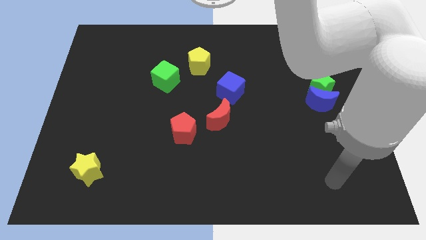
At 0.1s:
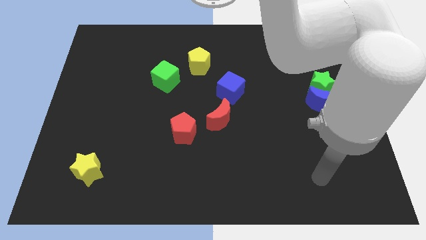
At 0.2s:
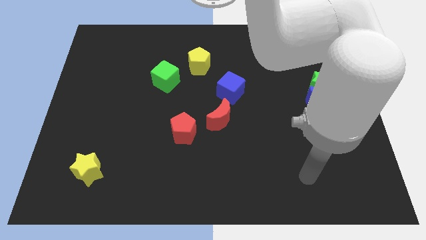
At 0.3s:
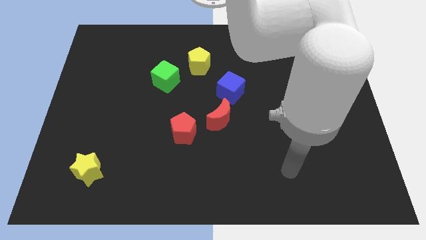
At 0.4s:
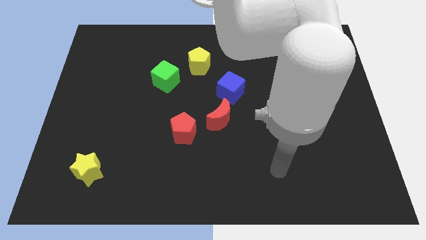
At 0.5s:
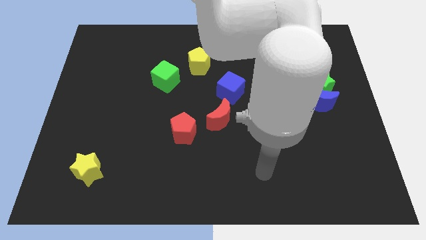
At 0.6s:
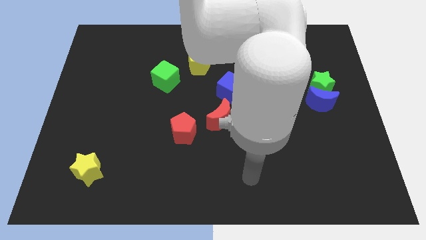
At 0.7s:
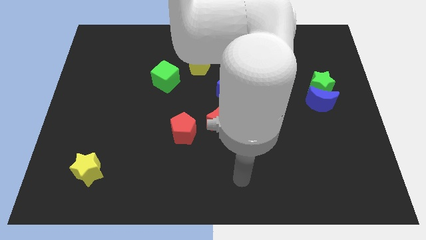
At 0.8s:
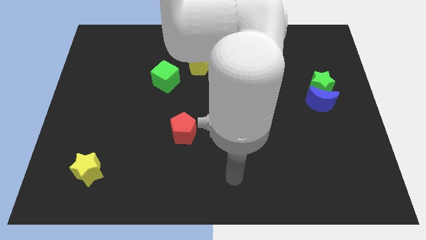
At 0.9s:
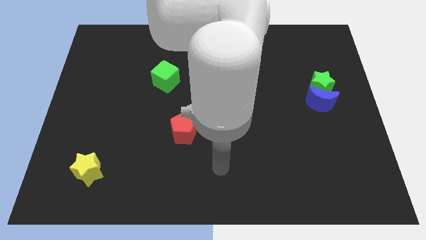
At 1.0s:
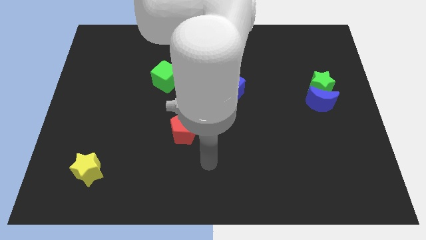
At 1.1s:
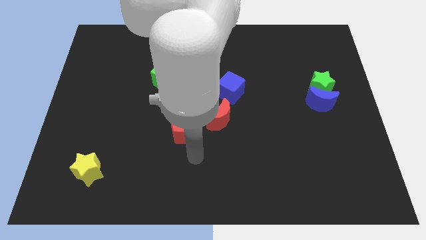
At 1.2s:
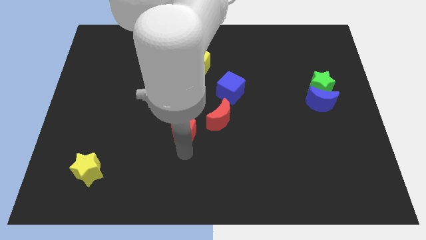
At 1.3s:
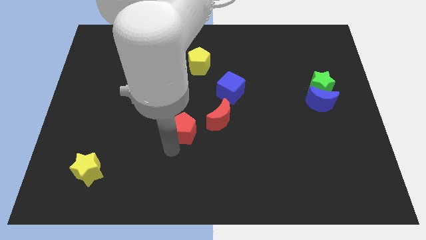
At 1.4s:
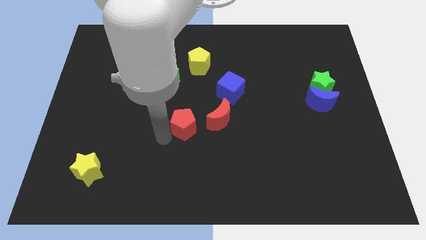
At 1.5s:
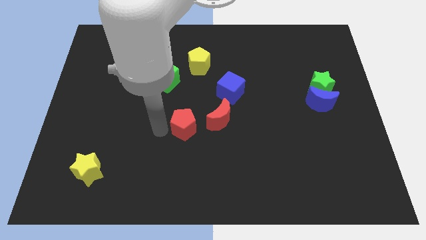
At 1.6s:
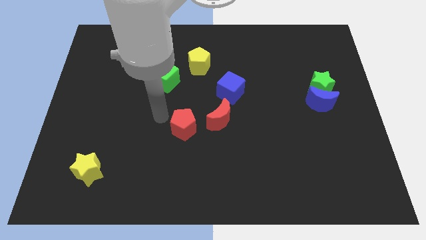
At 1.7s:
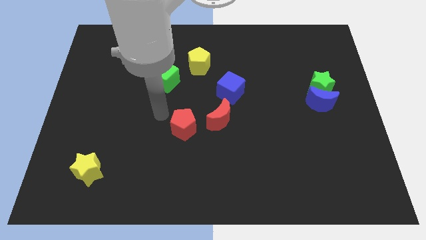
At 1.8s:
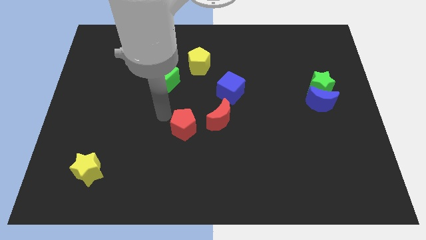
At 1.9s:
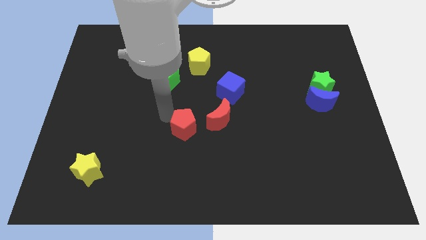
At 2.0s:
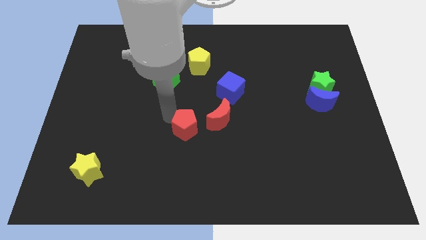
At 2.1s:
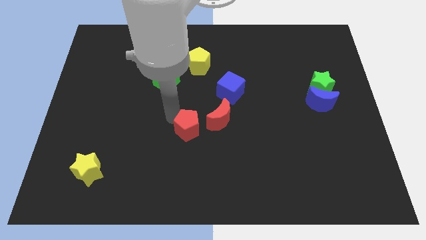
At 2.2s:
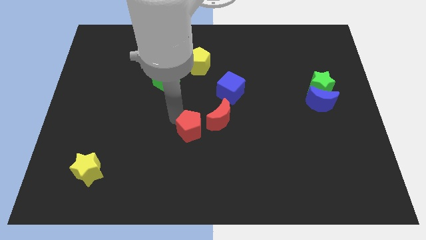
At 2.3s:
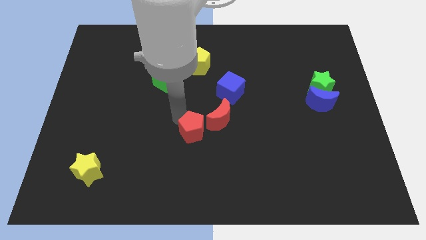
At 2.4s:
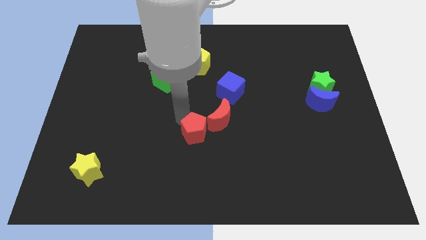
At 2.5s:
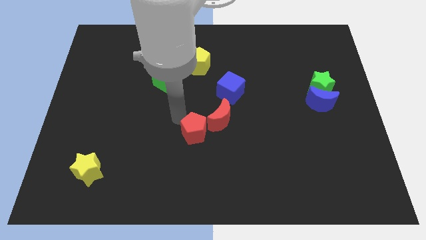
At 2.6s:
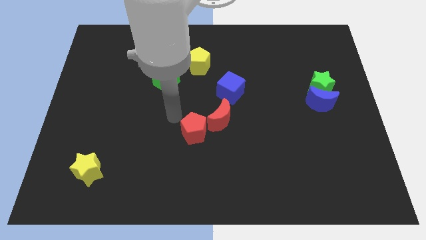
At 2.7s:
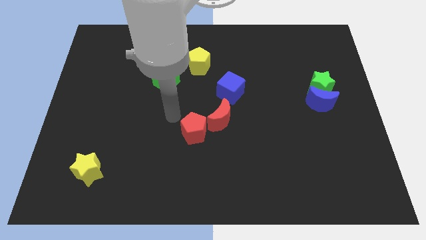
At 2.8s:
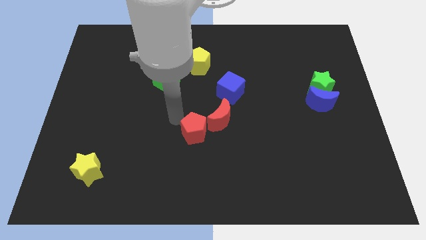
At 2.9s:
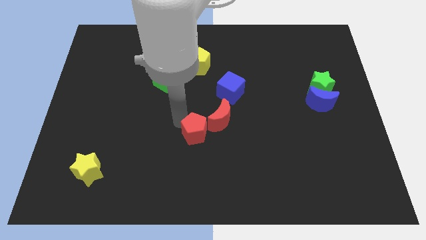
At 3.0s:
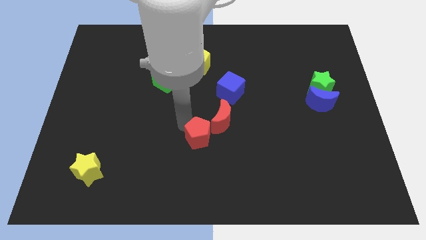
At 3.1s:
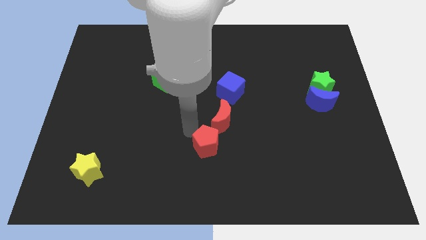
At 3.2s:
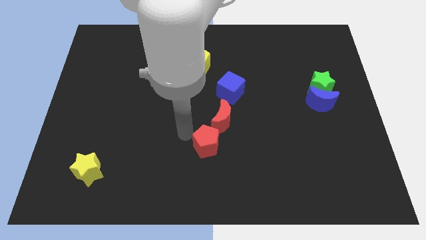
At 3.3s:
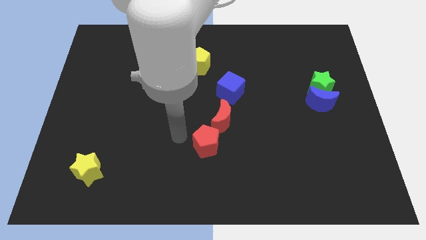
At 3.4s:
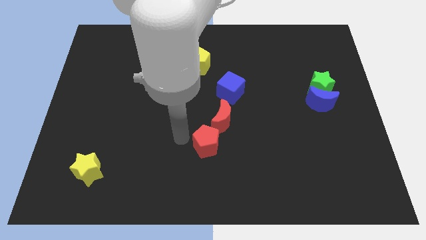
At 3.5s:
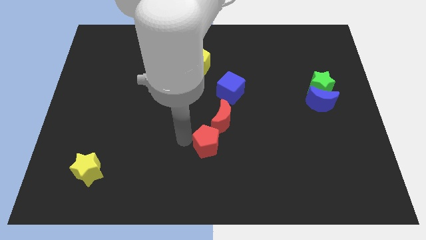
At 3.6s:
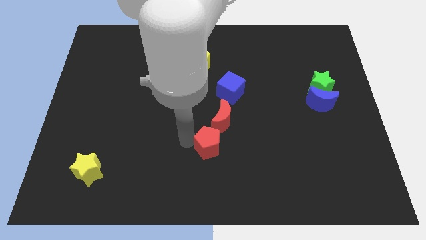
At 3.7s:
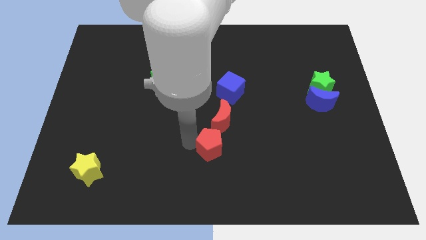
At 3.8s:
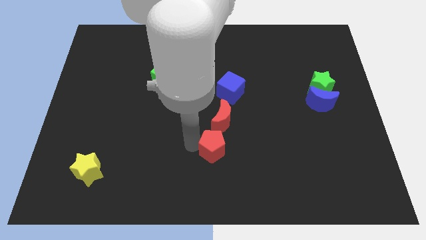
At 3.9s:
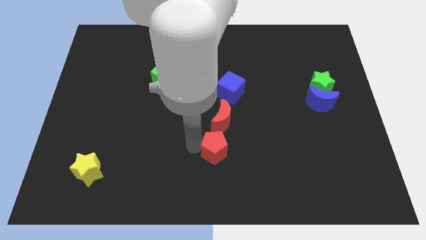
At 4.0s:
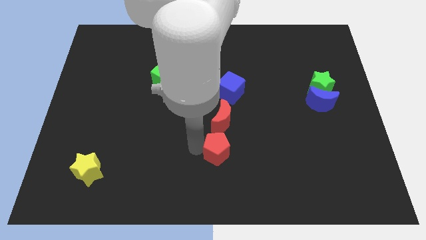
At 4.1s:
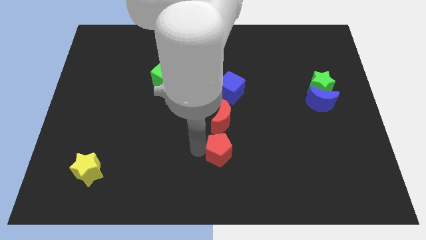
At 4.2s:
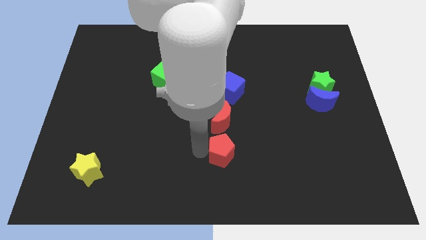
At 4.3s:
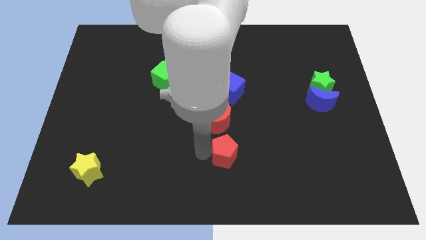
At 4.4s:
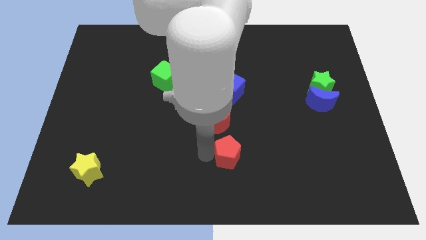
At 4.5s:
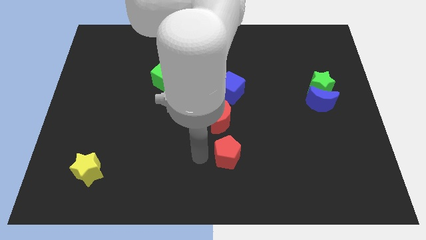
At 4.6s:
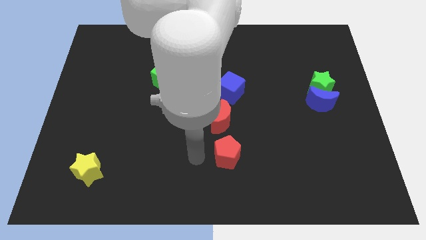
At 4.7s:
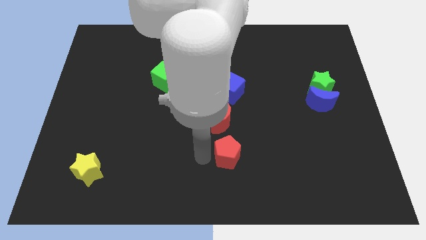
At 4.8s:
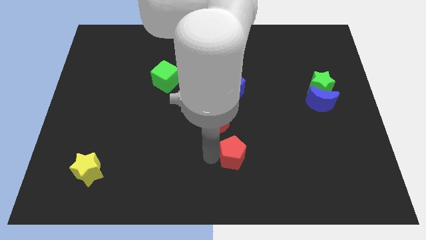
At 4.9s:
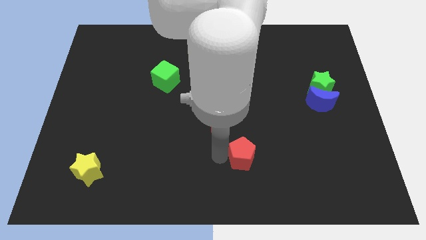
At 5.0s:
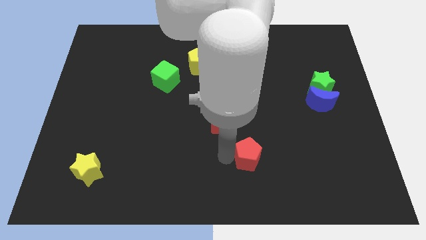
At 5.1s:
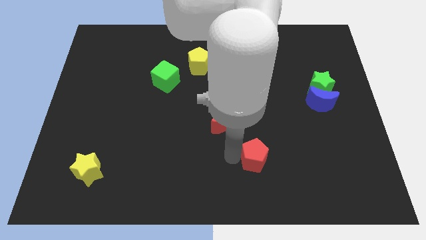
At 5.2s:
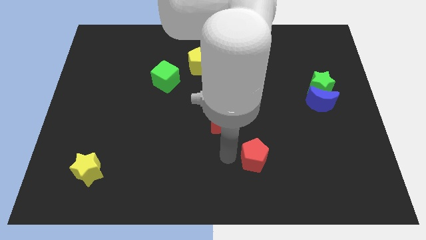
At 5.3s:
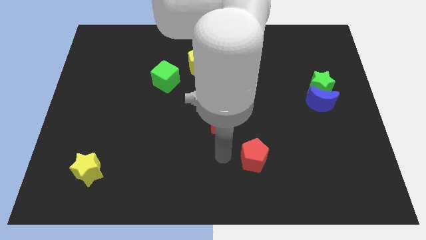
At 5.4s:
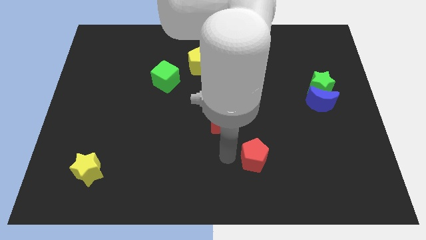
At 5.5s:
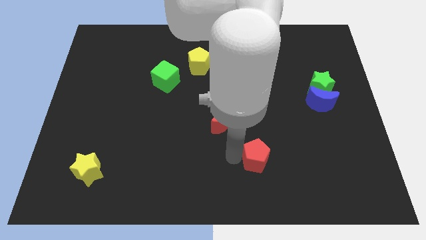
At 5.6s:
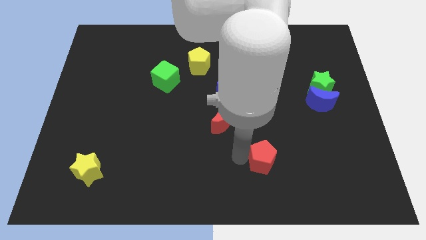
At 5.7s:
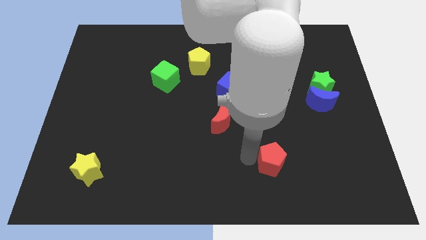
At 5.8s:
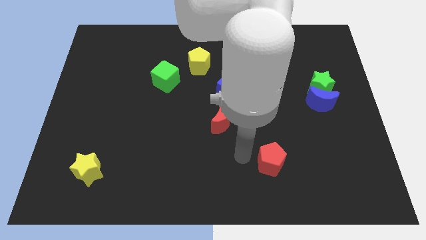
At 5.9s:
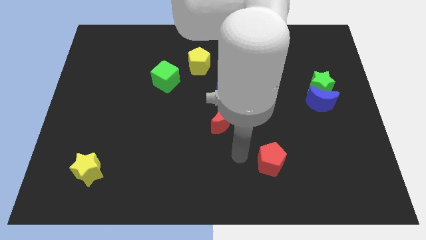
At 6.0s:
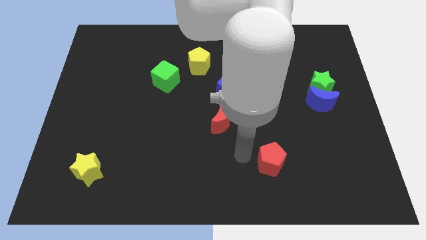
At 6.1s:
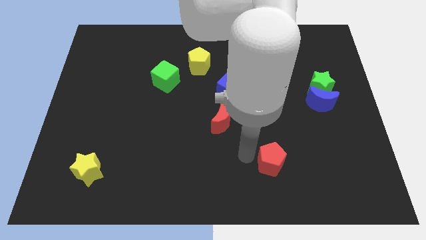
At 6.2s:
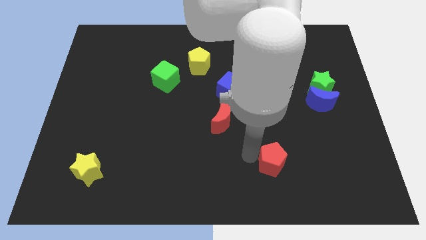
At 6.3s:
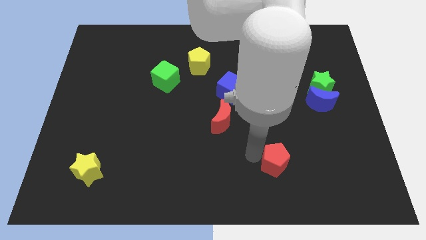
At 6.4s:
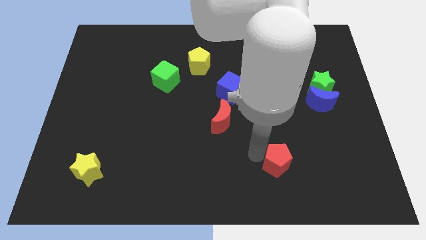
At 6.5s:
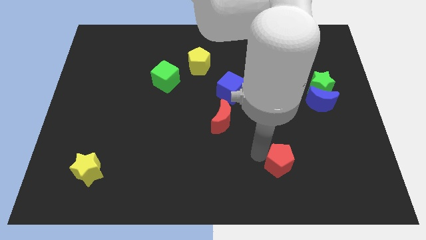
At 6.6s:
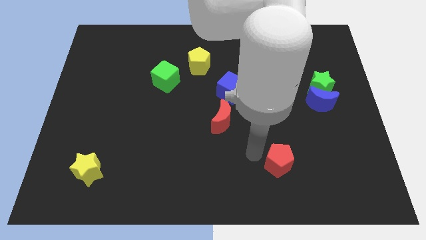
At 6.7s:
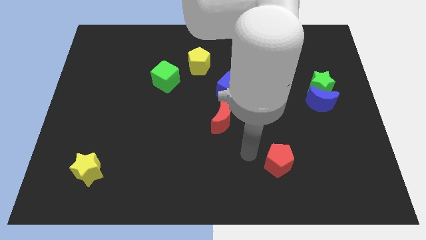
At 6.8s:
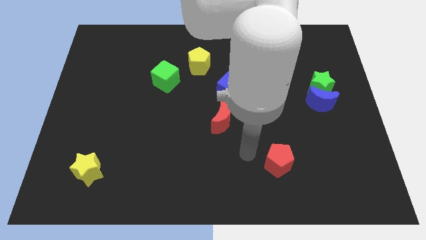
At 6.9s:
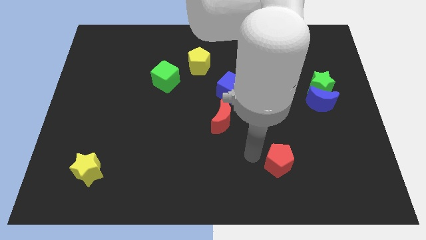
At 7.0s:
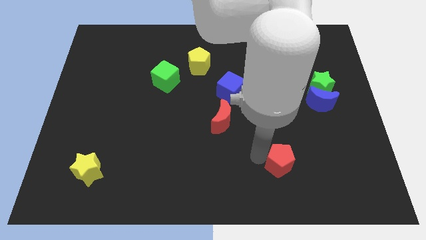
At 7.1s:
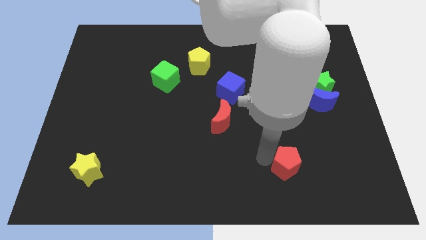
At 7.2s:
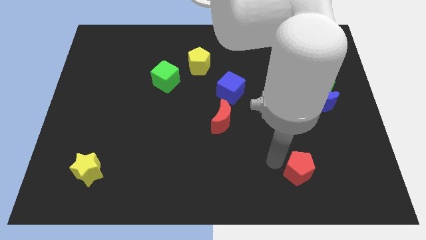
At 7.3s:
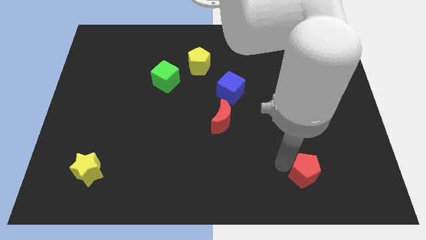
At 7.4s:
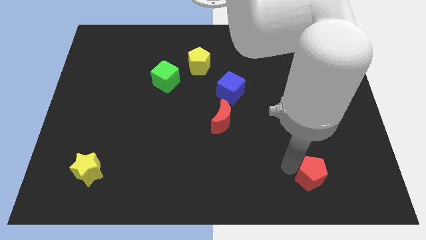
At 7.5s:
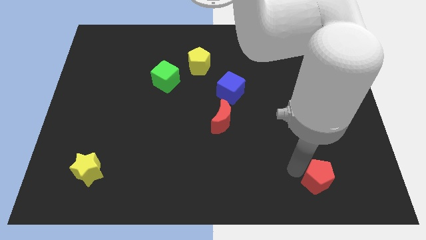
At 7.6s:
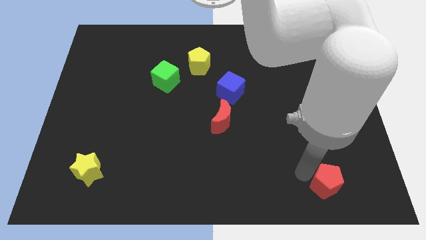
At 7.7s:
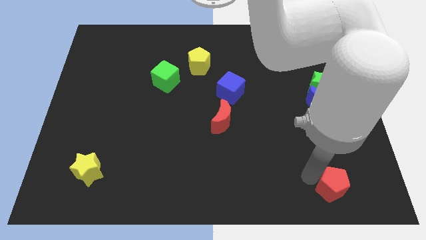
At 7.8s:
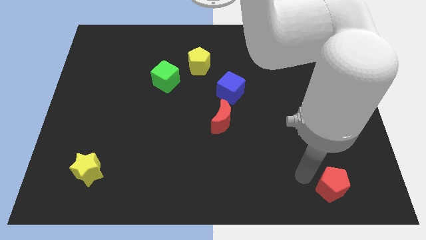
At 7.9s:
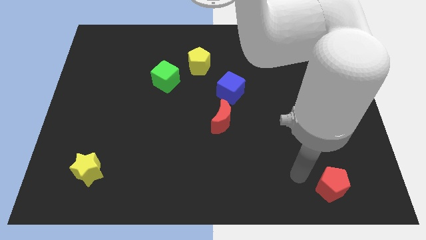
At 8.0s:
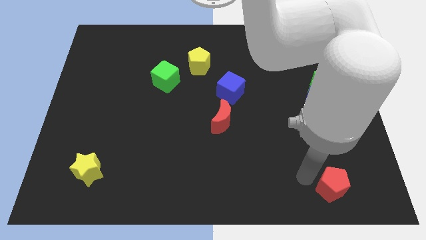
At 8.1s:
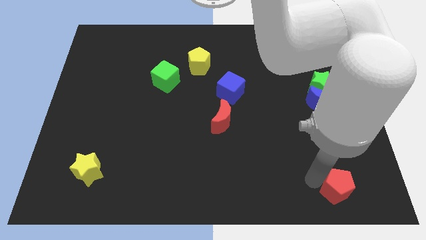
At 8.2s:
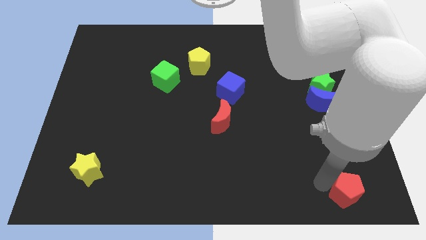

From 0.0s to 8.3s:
push the red pentagon to the lower right corner
